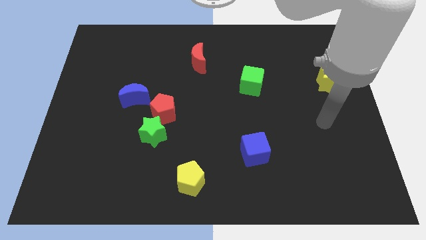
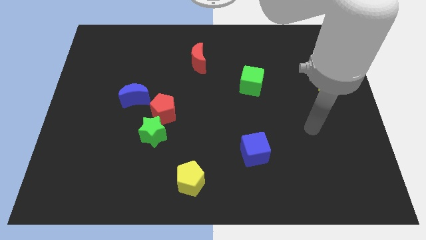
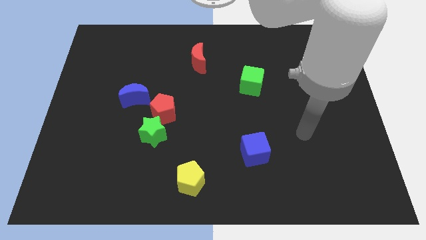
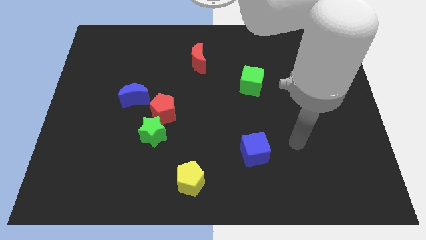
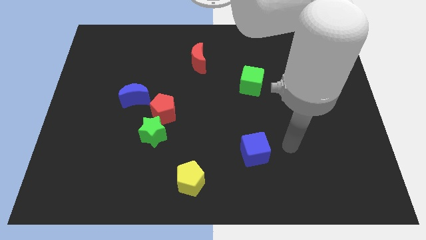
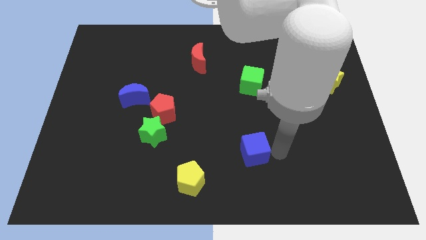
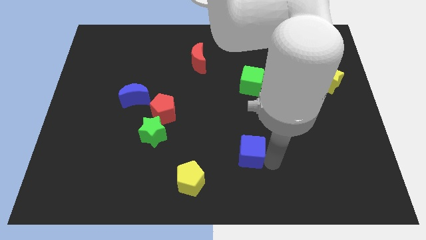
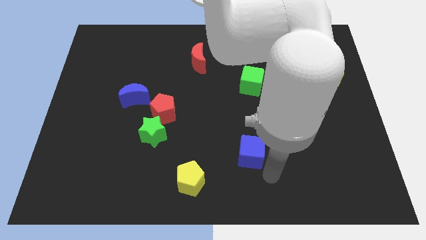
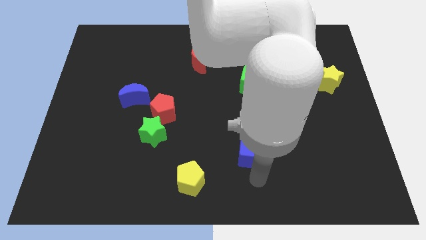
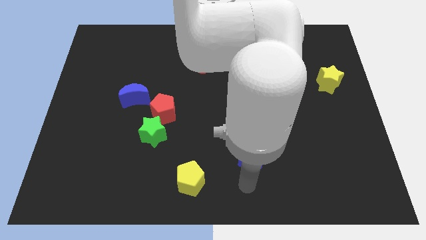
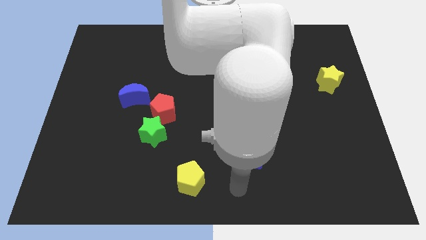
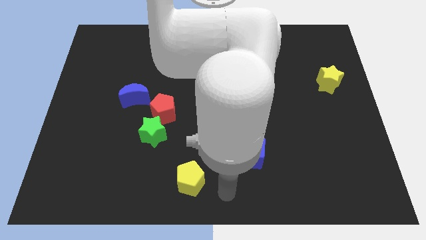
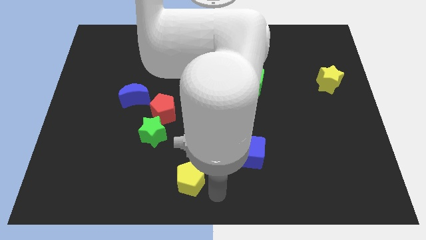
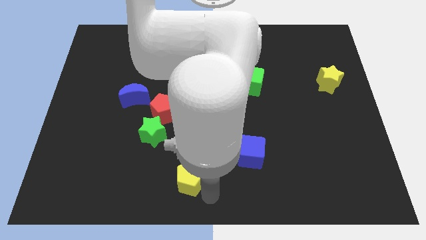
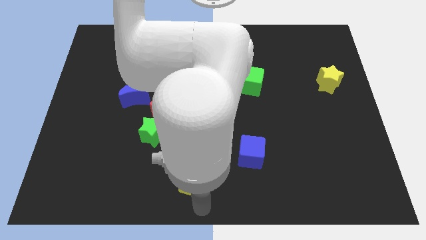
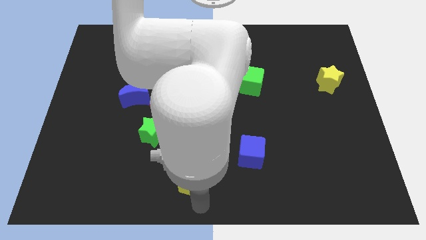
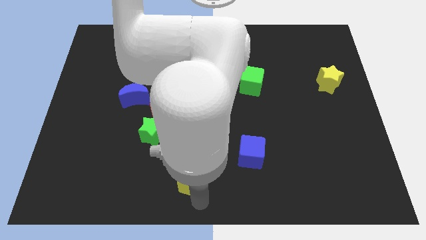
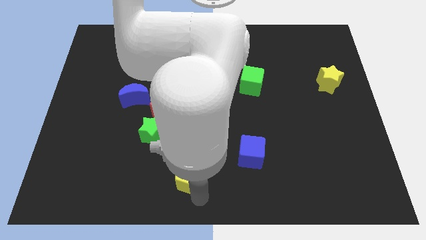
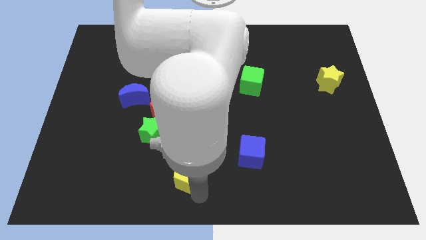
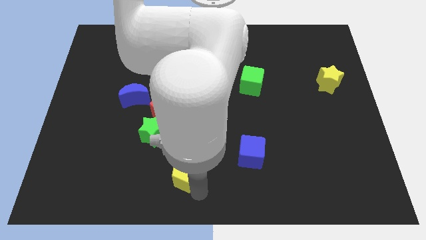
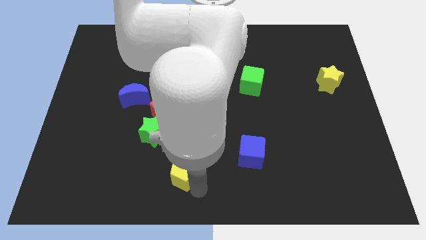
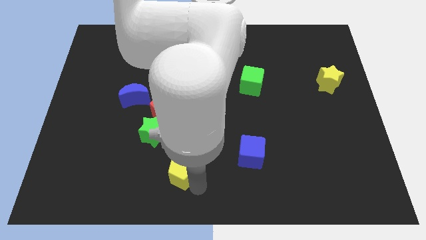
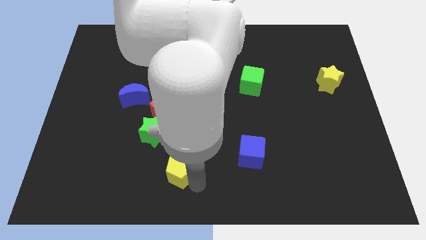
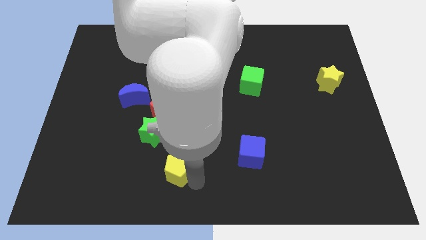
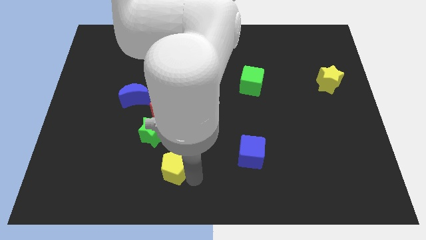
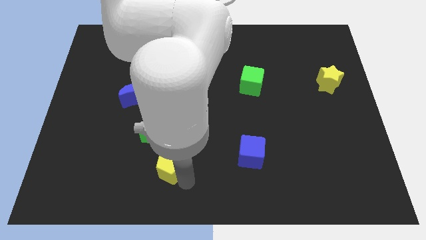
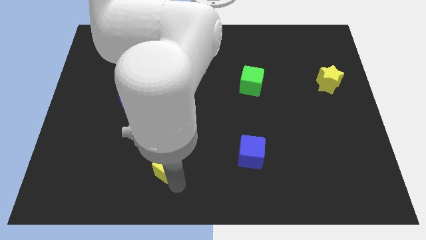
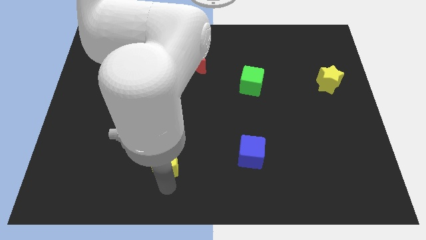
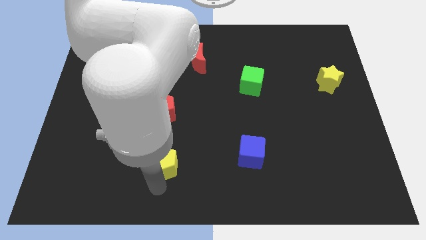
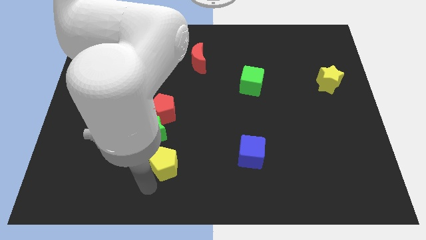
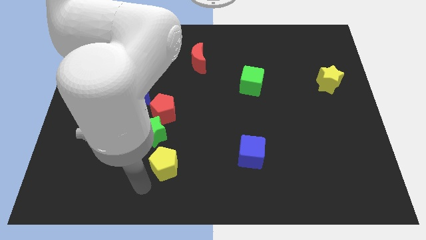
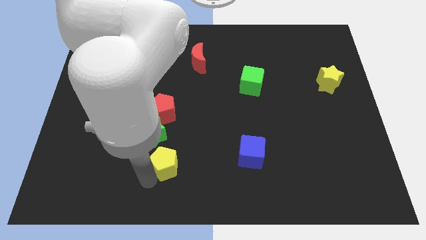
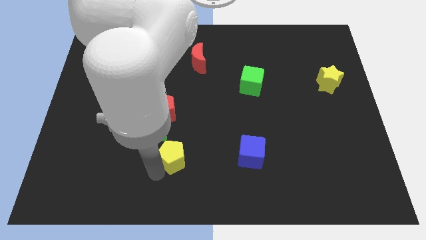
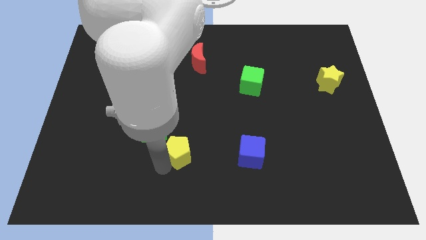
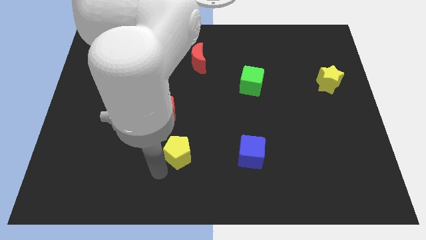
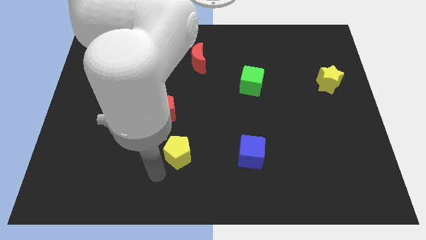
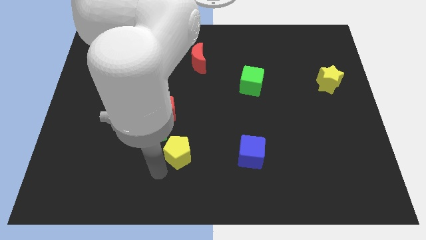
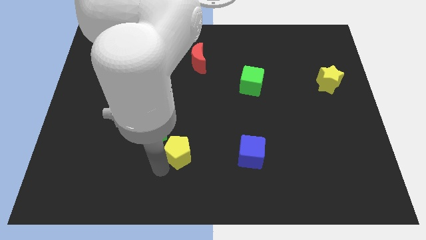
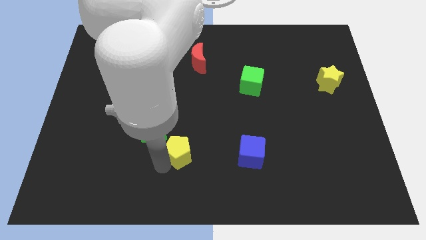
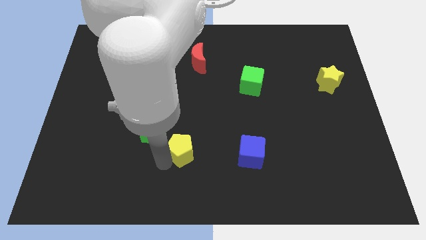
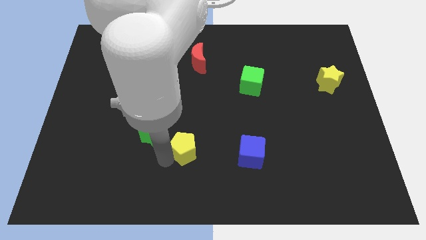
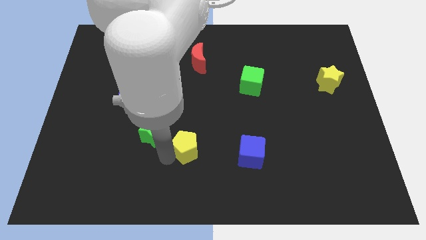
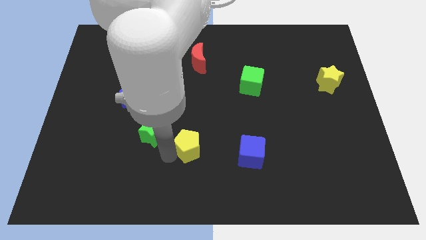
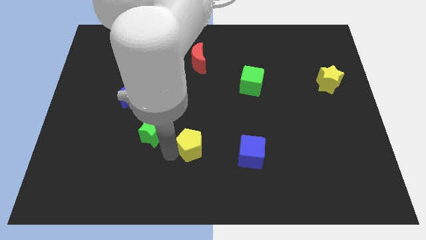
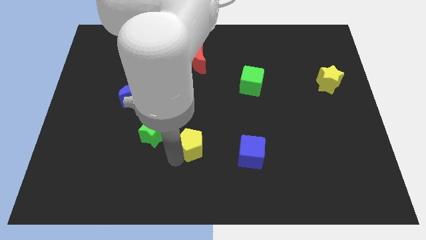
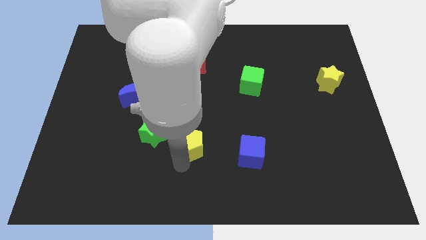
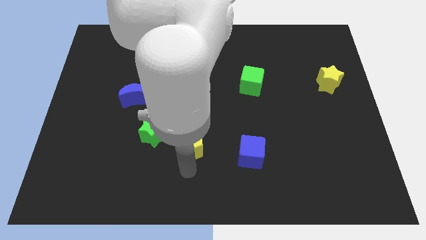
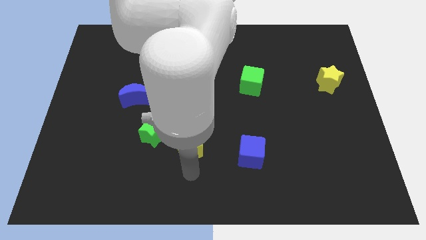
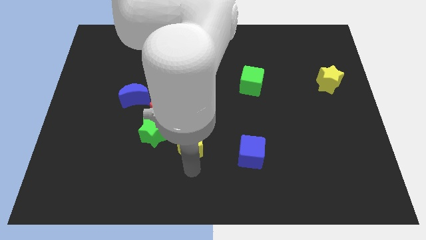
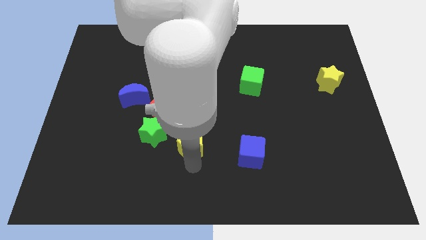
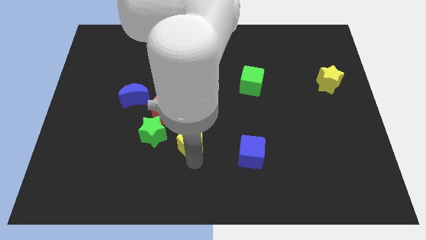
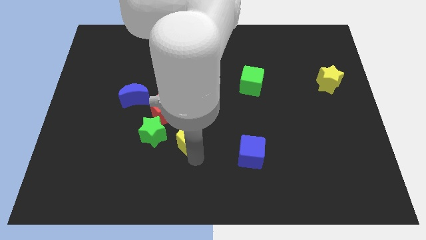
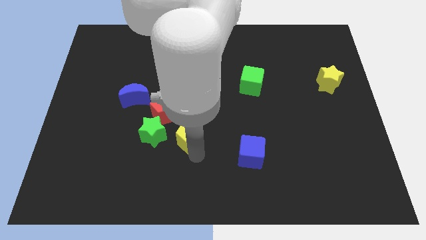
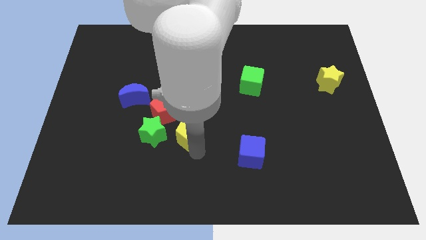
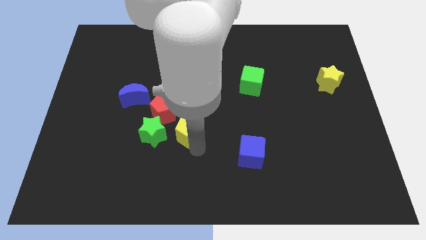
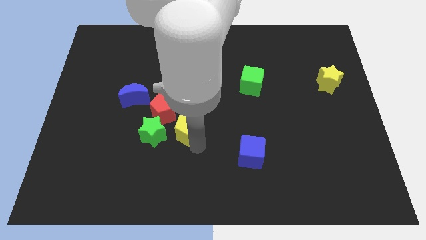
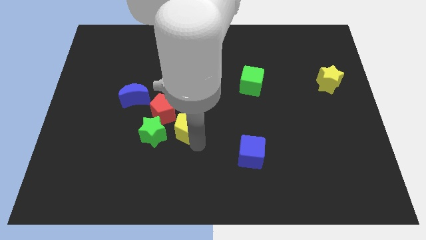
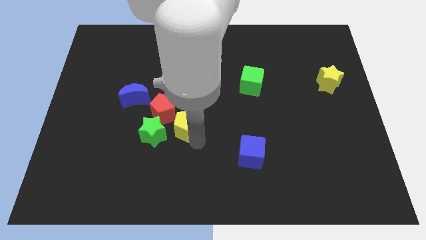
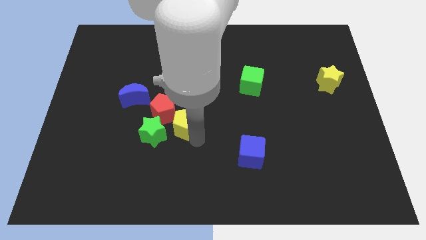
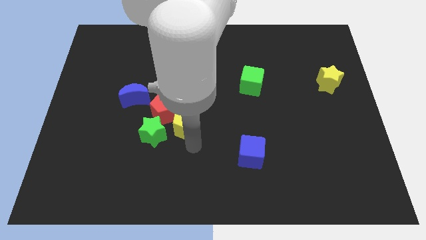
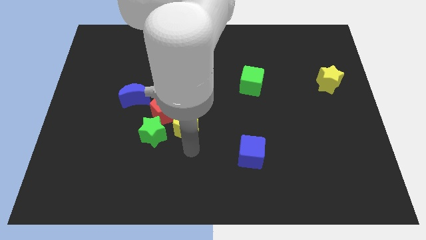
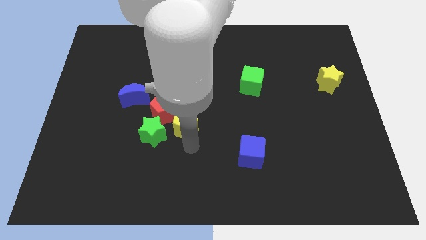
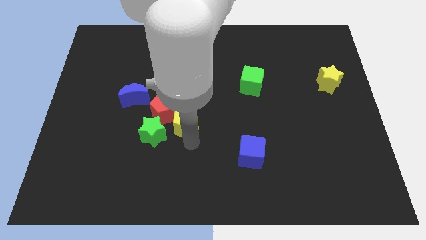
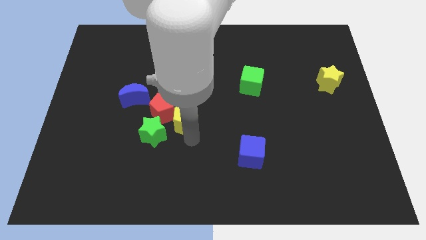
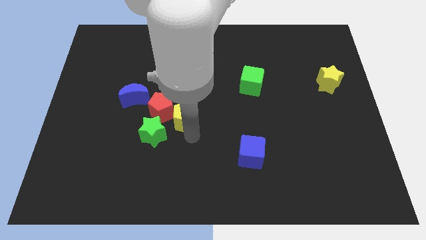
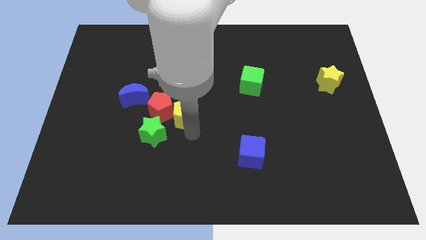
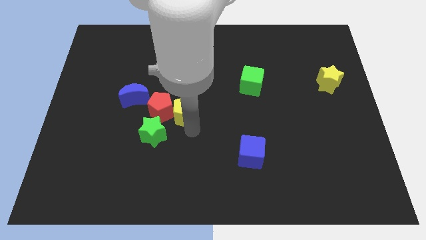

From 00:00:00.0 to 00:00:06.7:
push the yellow pentagon right of the blue moon
